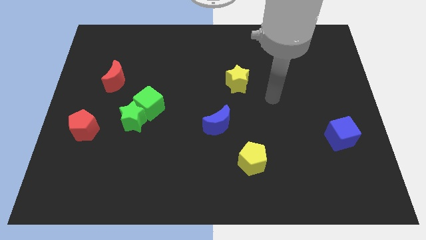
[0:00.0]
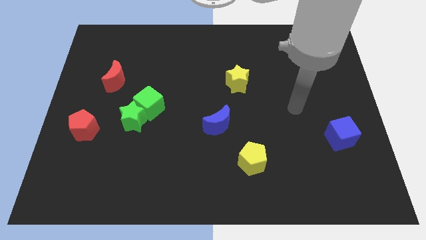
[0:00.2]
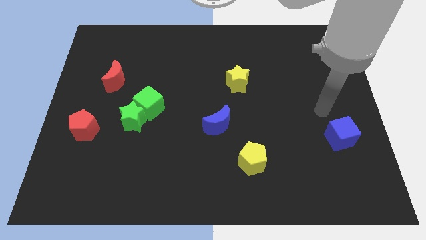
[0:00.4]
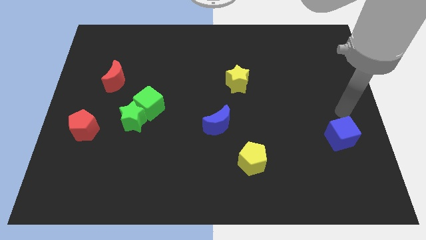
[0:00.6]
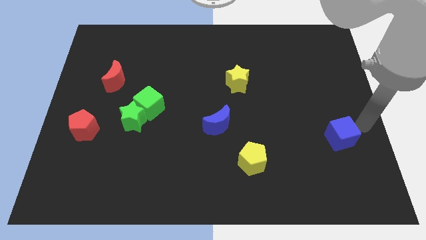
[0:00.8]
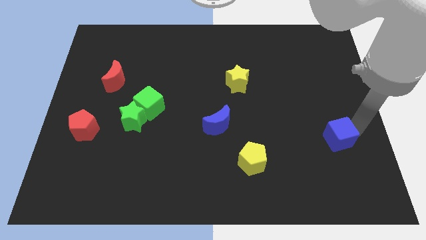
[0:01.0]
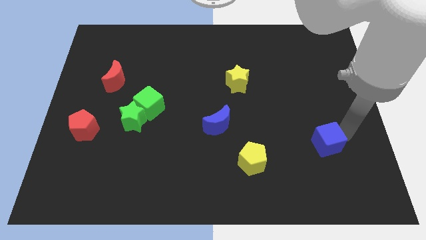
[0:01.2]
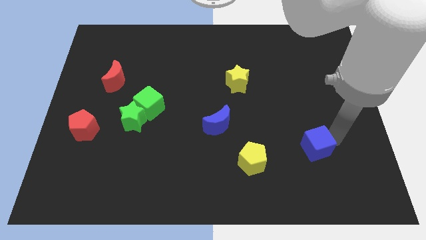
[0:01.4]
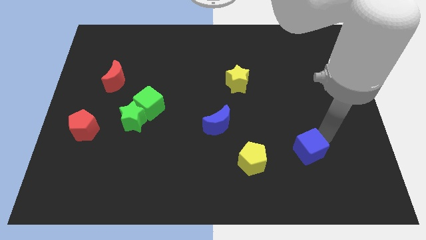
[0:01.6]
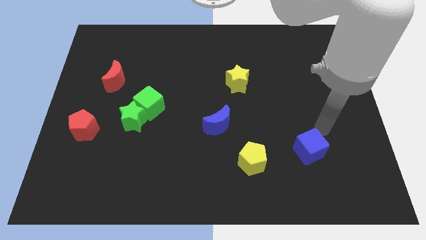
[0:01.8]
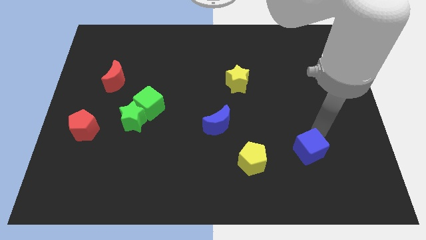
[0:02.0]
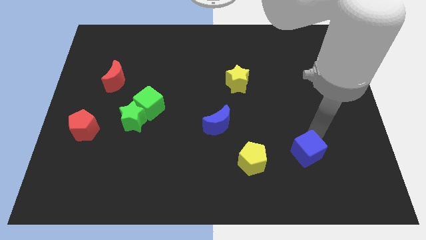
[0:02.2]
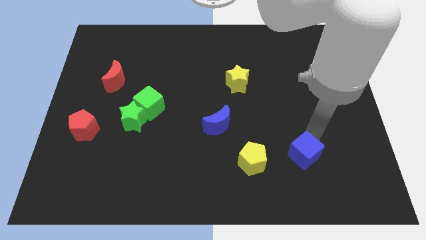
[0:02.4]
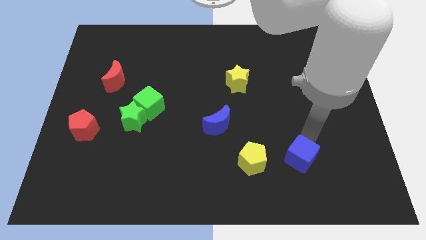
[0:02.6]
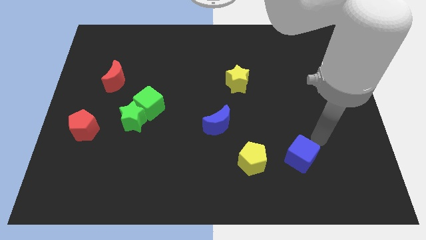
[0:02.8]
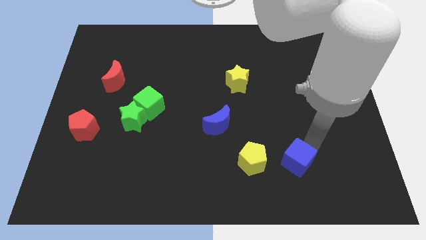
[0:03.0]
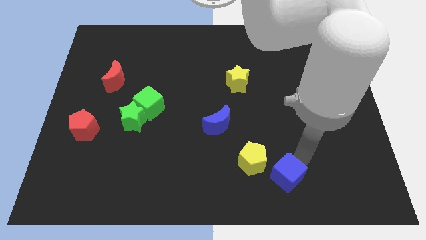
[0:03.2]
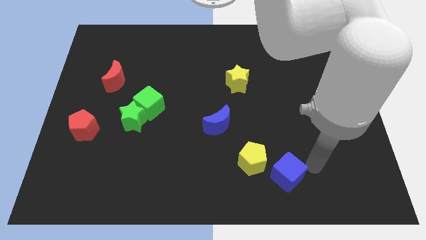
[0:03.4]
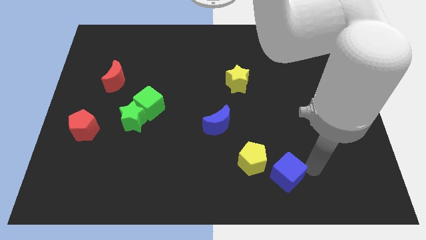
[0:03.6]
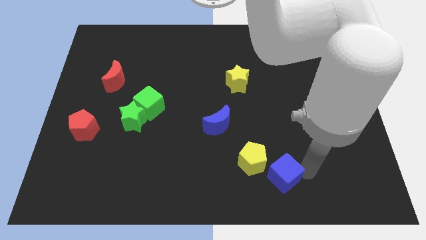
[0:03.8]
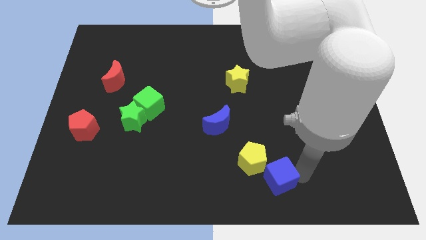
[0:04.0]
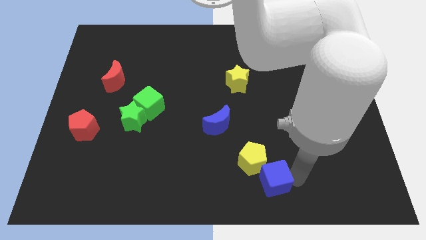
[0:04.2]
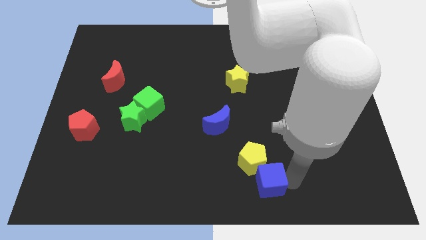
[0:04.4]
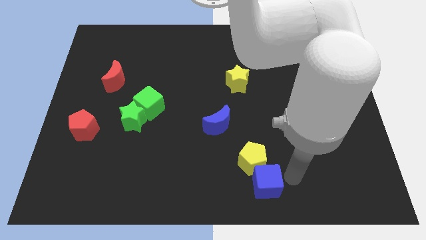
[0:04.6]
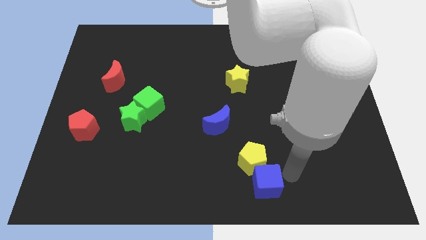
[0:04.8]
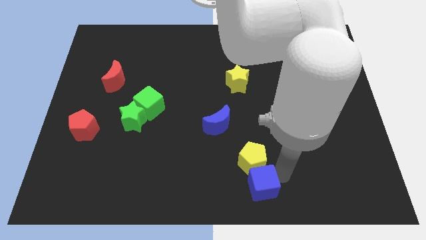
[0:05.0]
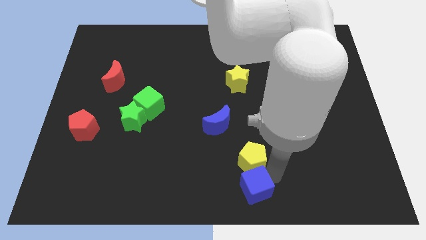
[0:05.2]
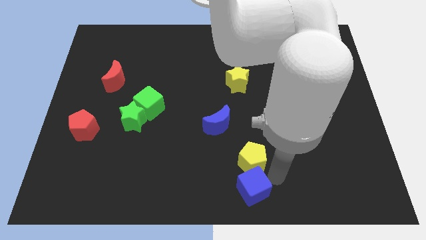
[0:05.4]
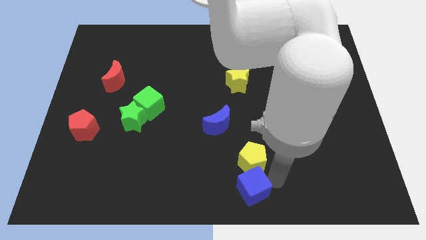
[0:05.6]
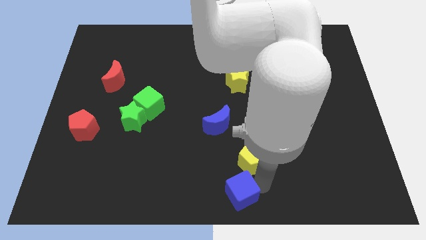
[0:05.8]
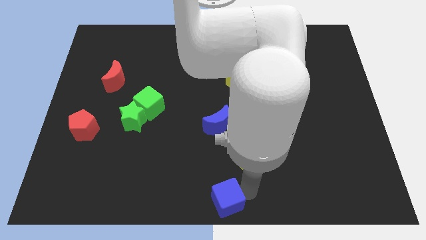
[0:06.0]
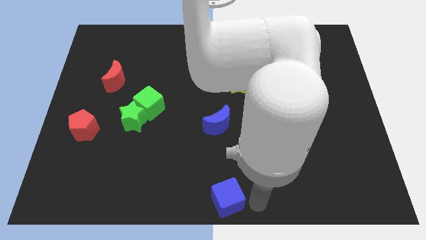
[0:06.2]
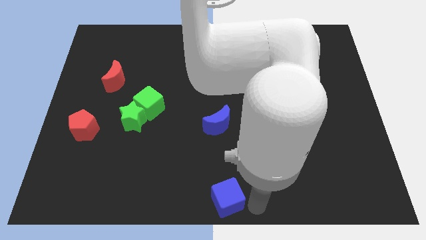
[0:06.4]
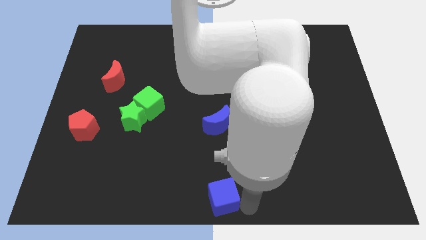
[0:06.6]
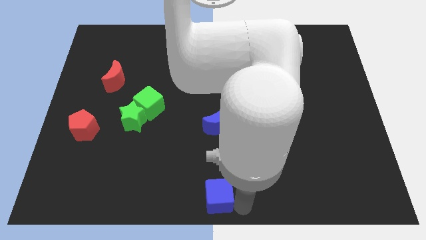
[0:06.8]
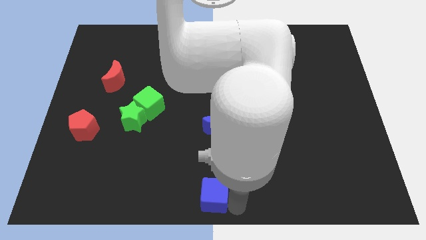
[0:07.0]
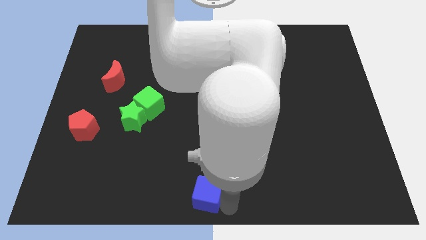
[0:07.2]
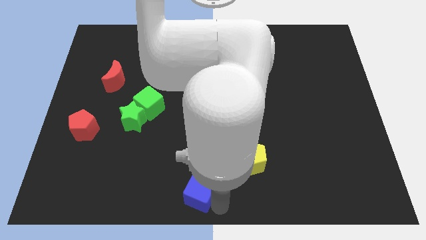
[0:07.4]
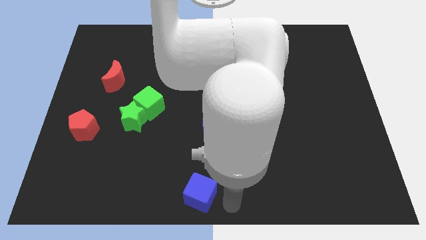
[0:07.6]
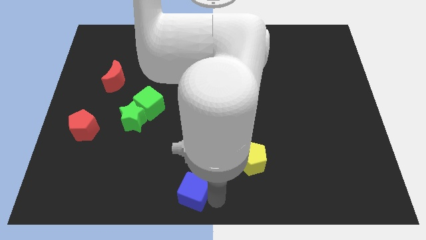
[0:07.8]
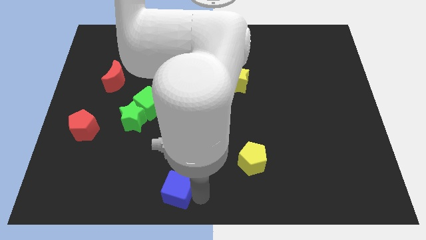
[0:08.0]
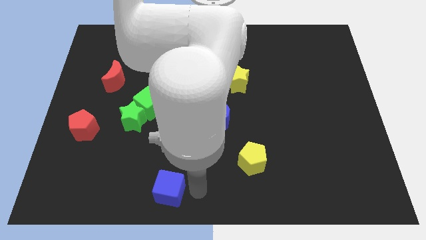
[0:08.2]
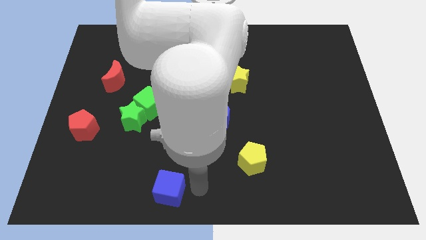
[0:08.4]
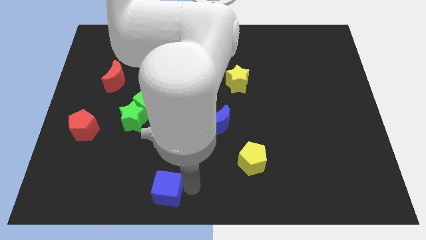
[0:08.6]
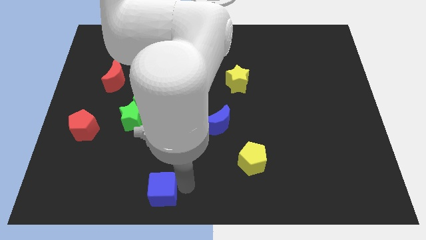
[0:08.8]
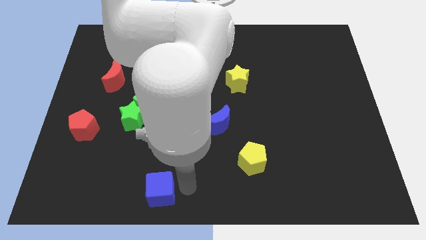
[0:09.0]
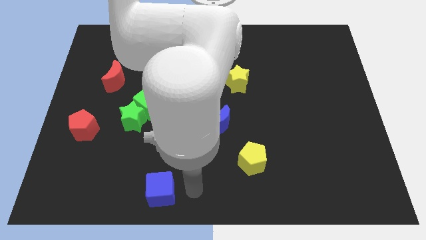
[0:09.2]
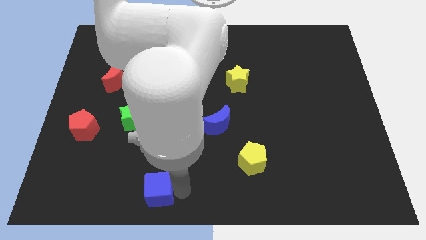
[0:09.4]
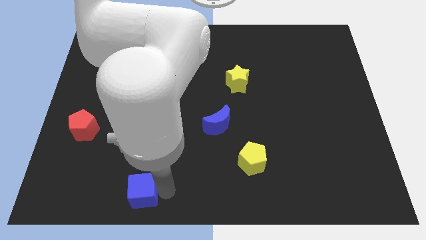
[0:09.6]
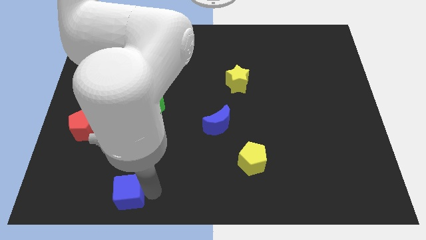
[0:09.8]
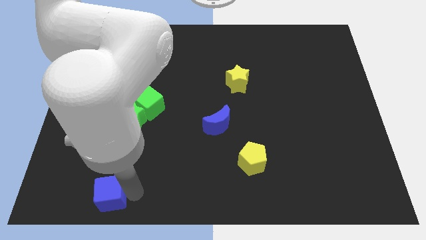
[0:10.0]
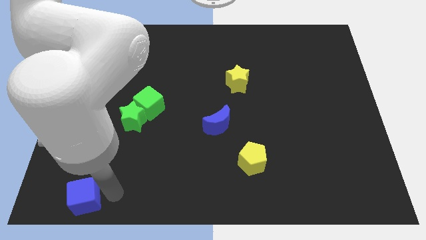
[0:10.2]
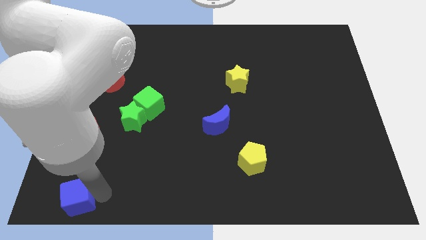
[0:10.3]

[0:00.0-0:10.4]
put the blue cube to the bottom left

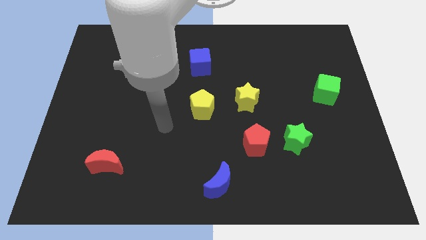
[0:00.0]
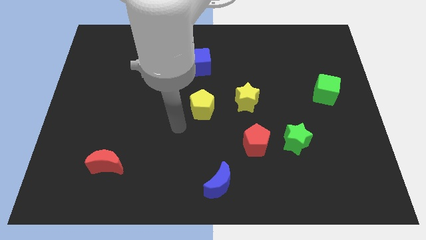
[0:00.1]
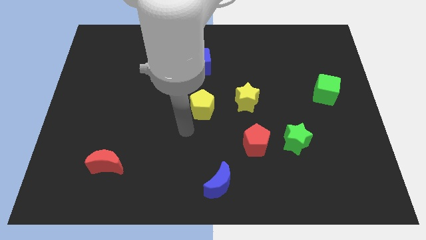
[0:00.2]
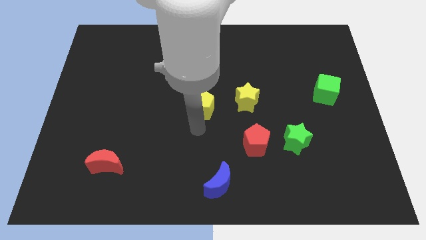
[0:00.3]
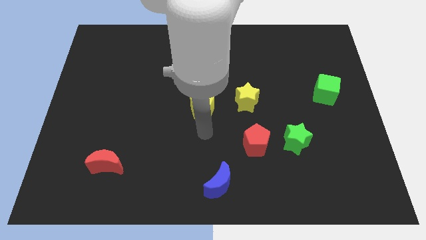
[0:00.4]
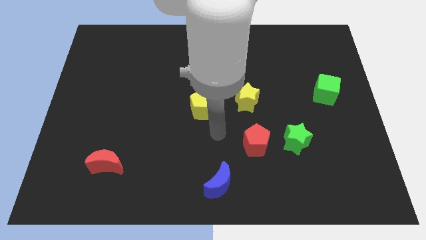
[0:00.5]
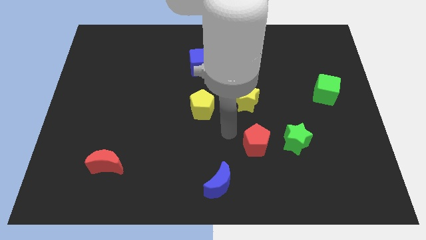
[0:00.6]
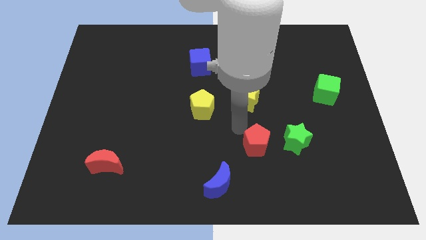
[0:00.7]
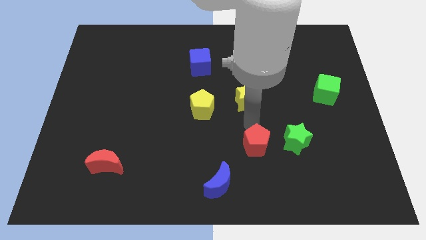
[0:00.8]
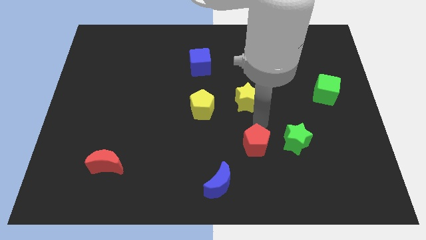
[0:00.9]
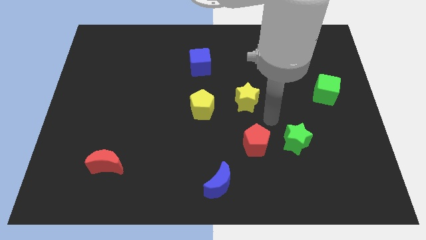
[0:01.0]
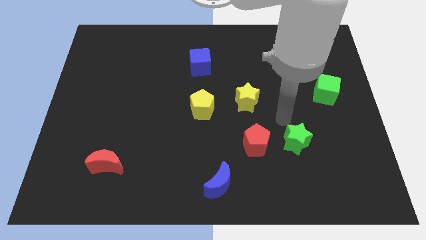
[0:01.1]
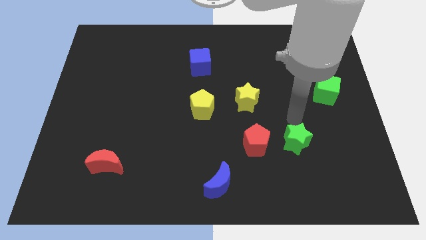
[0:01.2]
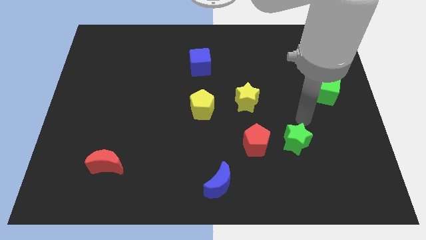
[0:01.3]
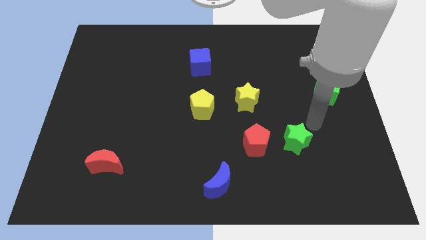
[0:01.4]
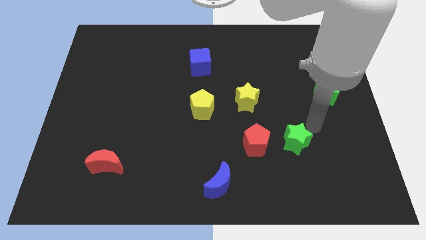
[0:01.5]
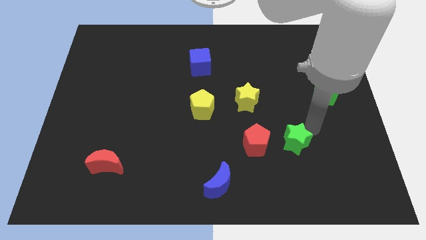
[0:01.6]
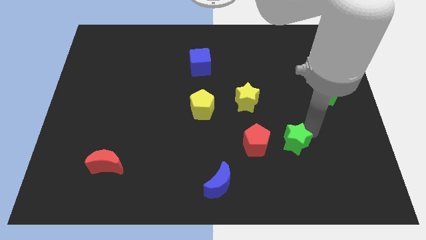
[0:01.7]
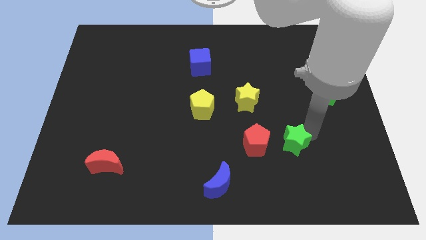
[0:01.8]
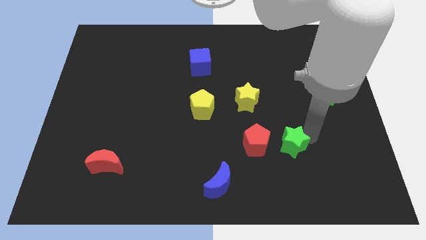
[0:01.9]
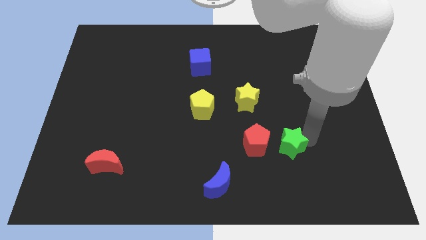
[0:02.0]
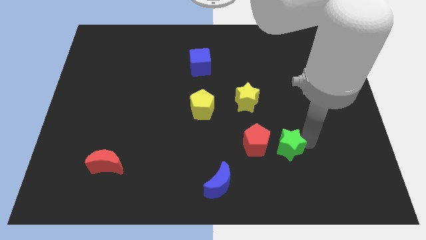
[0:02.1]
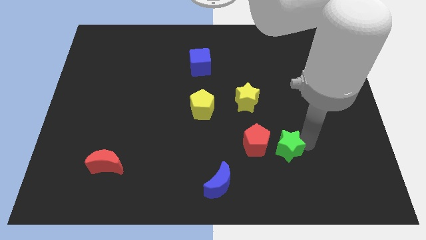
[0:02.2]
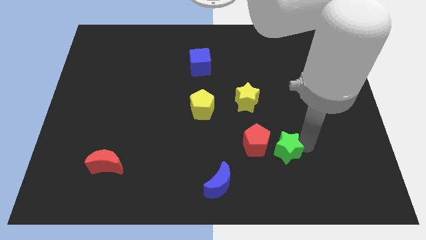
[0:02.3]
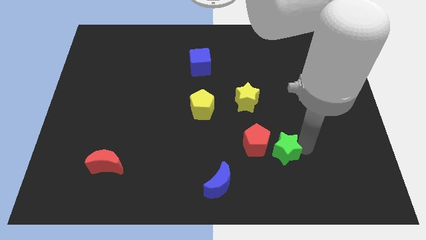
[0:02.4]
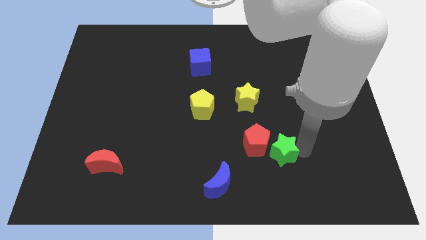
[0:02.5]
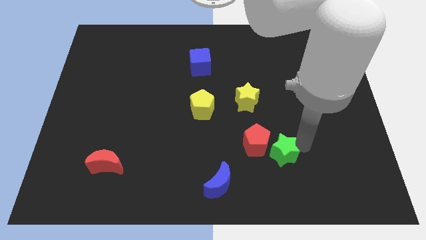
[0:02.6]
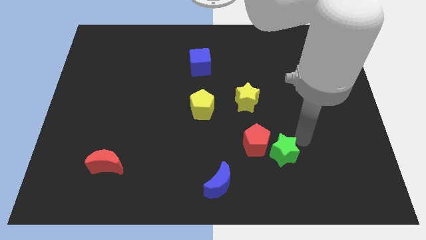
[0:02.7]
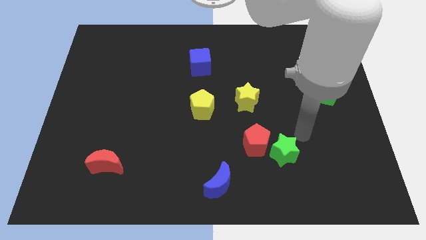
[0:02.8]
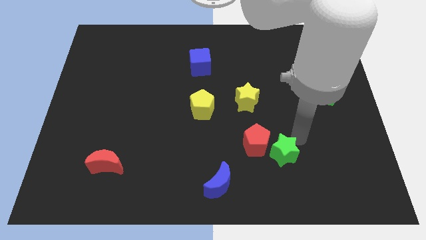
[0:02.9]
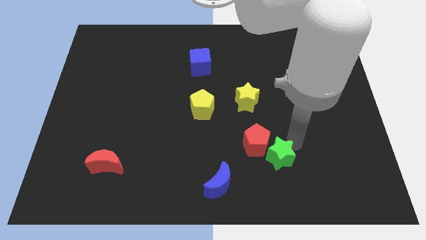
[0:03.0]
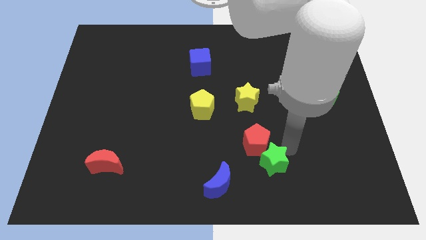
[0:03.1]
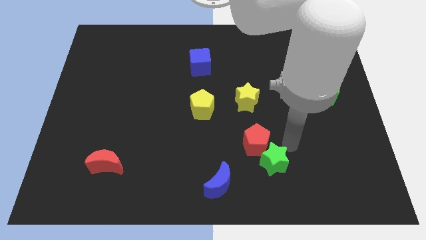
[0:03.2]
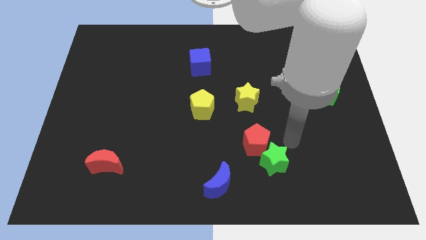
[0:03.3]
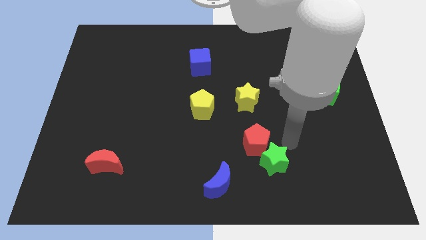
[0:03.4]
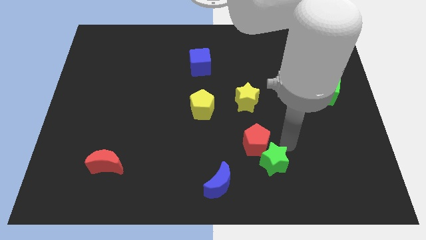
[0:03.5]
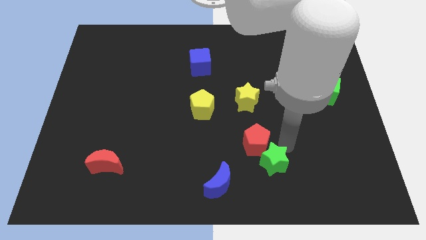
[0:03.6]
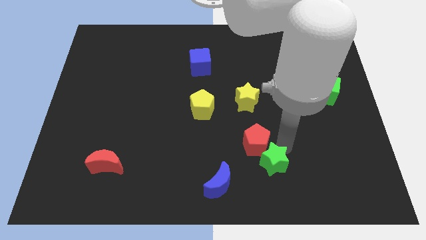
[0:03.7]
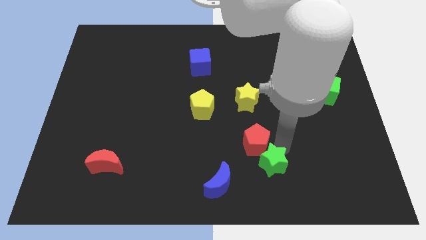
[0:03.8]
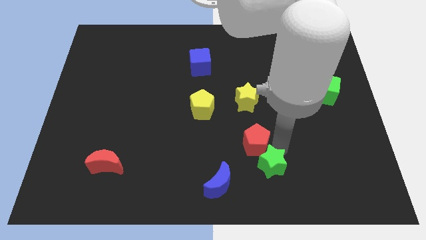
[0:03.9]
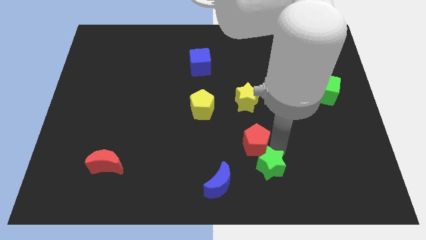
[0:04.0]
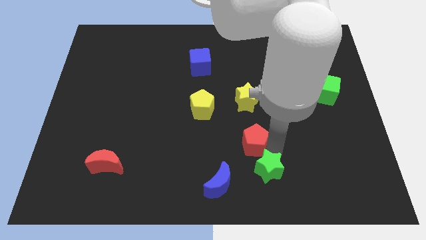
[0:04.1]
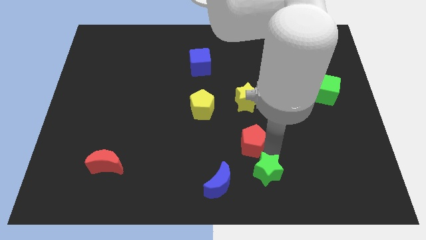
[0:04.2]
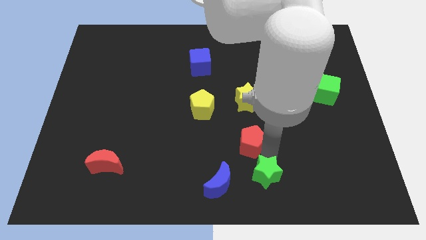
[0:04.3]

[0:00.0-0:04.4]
move the green star to the bottom side
